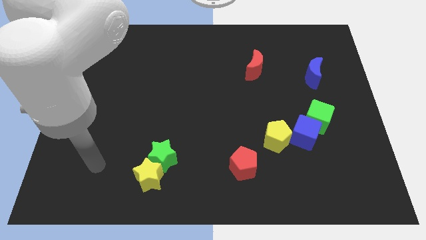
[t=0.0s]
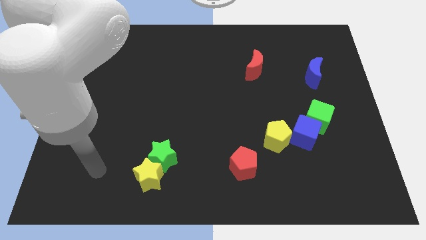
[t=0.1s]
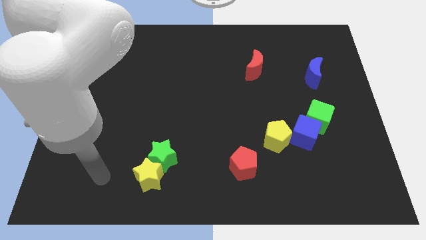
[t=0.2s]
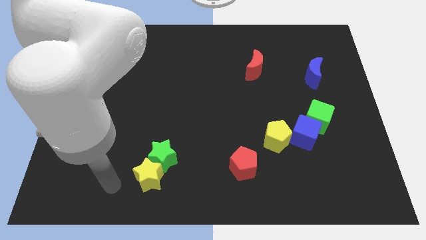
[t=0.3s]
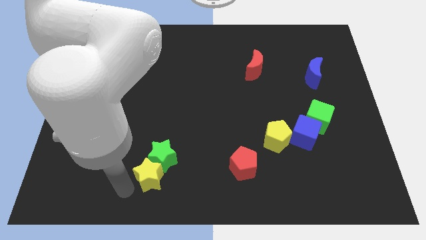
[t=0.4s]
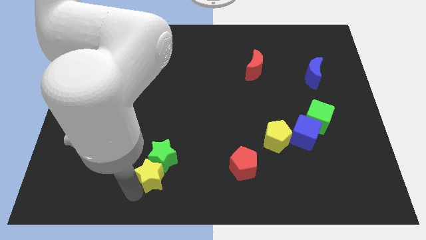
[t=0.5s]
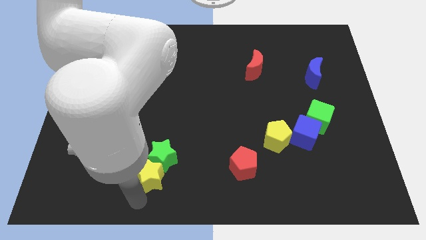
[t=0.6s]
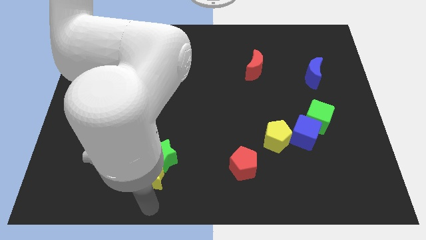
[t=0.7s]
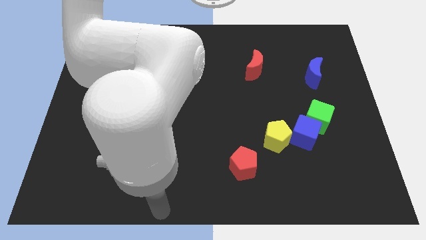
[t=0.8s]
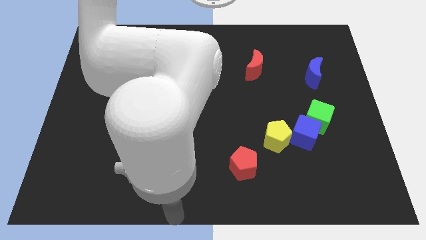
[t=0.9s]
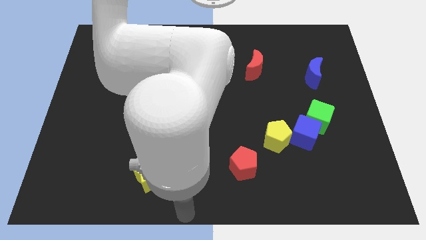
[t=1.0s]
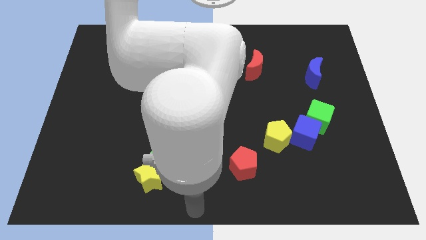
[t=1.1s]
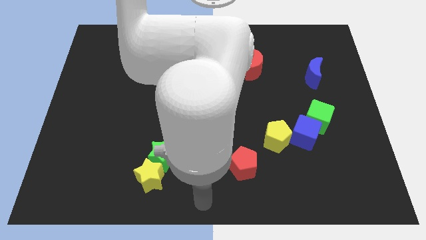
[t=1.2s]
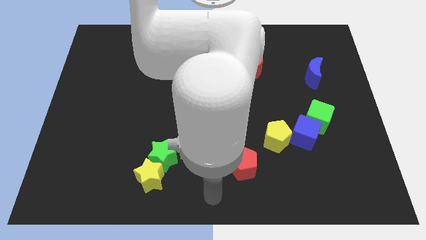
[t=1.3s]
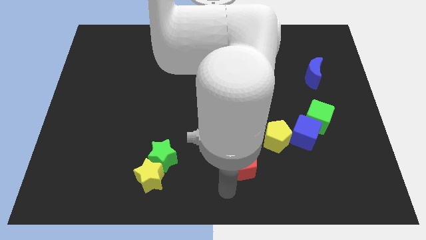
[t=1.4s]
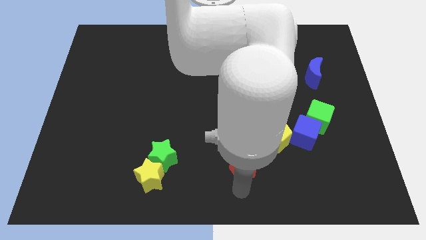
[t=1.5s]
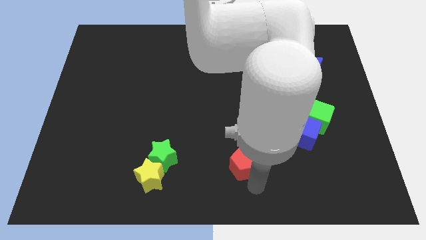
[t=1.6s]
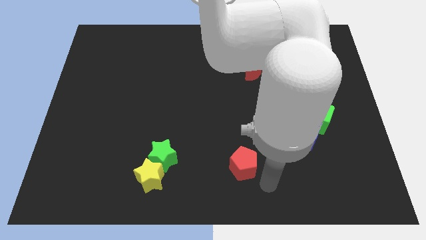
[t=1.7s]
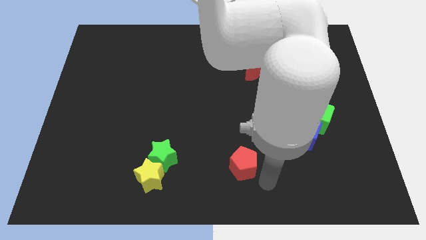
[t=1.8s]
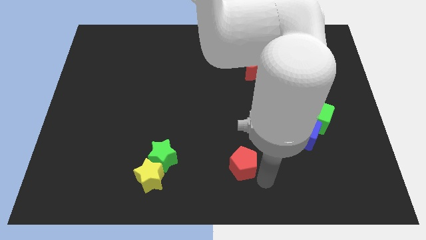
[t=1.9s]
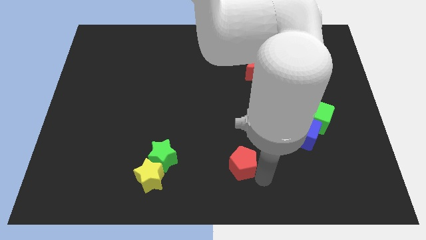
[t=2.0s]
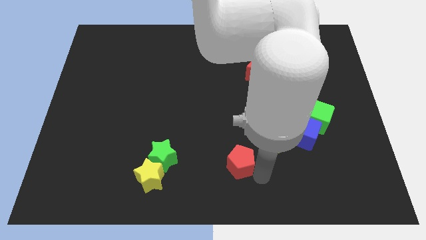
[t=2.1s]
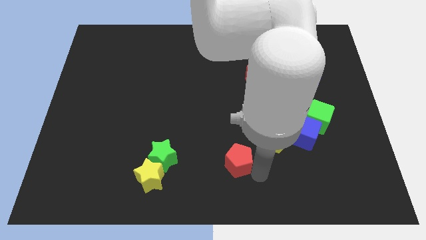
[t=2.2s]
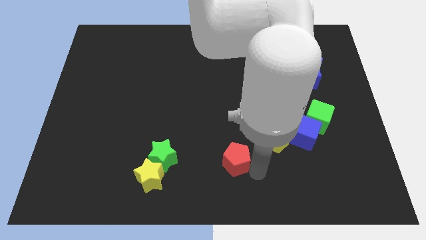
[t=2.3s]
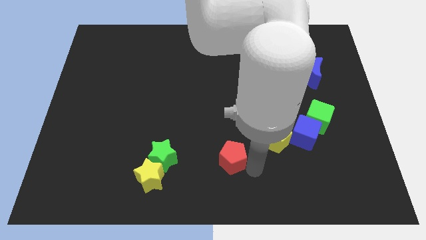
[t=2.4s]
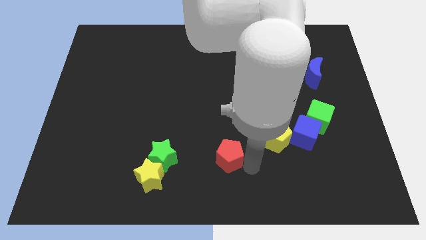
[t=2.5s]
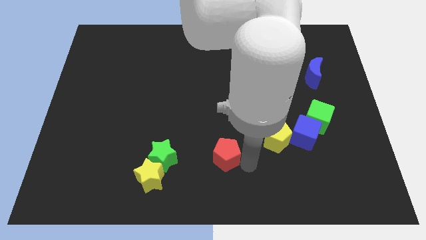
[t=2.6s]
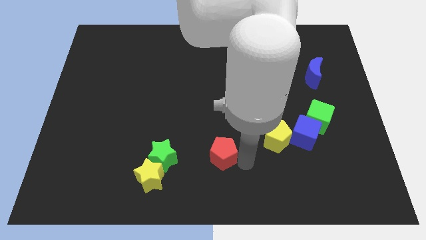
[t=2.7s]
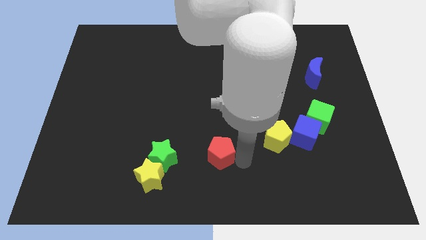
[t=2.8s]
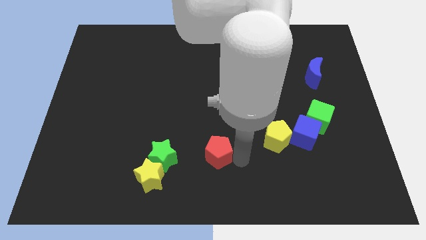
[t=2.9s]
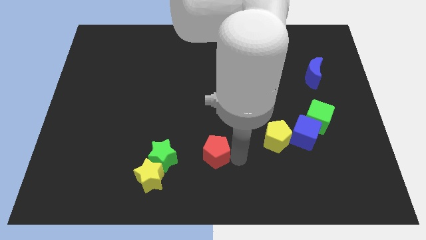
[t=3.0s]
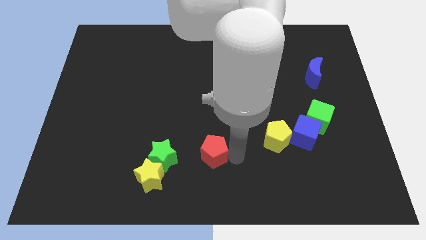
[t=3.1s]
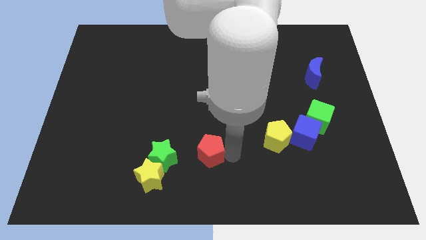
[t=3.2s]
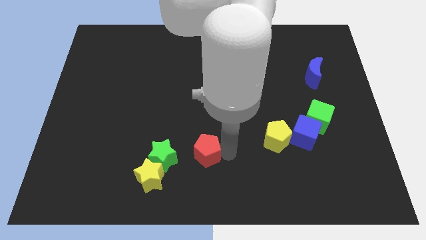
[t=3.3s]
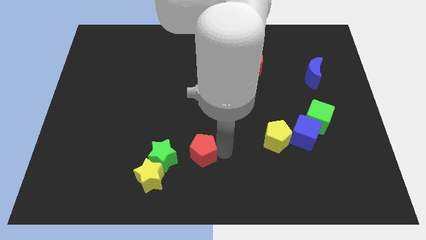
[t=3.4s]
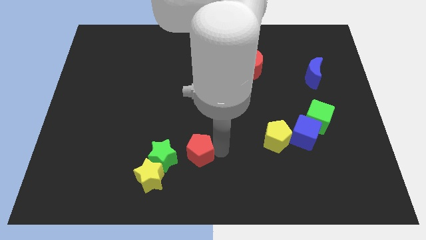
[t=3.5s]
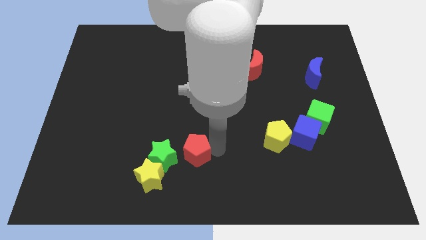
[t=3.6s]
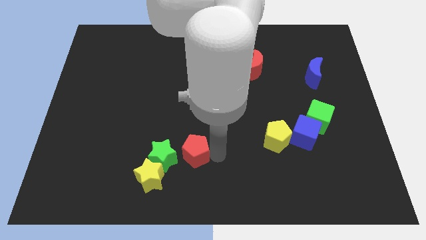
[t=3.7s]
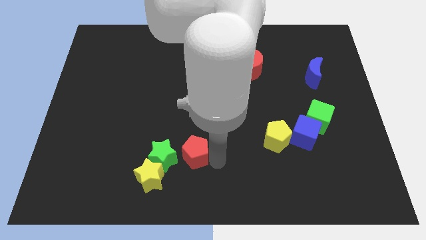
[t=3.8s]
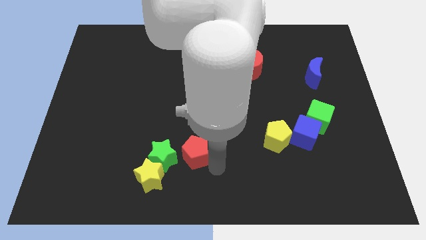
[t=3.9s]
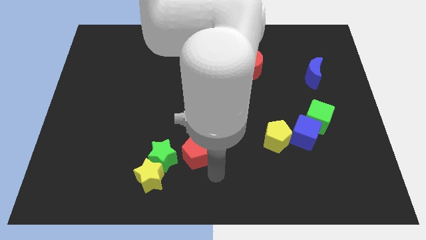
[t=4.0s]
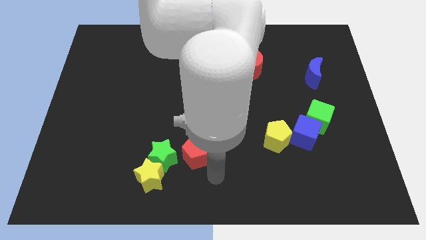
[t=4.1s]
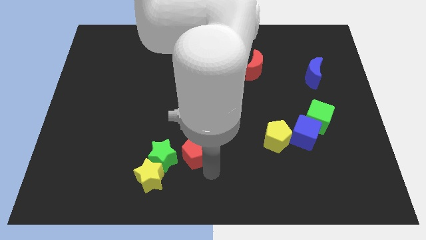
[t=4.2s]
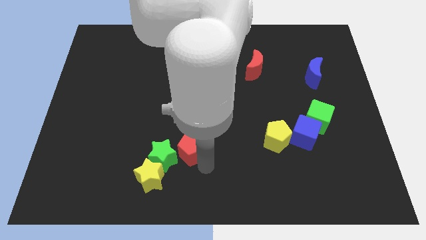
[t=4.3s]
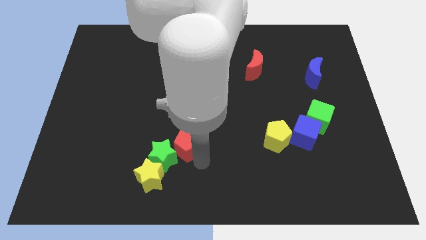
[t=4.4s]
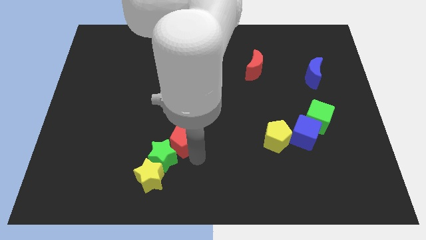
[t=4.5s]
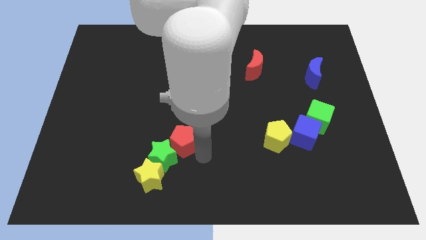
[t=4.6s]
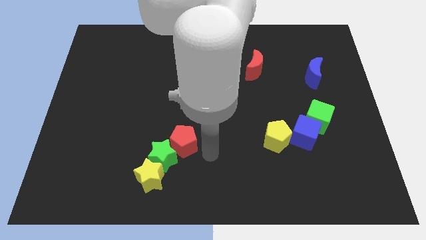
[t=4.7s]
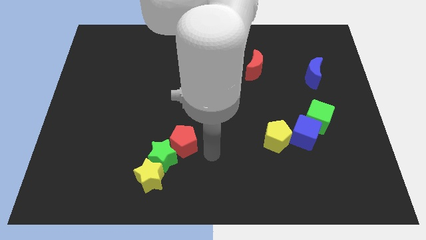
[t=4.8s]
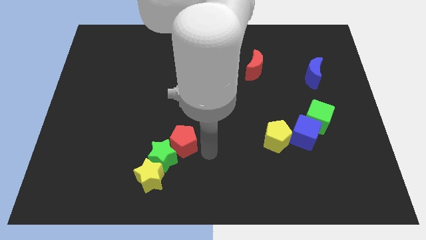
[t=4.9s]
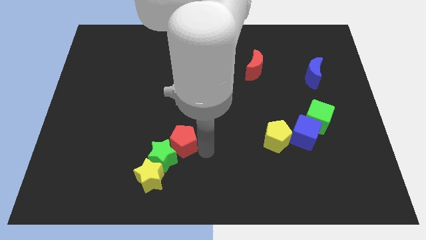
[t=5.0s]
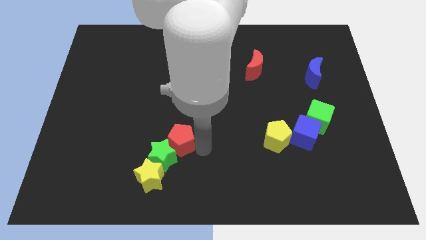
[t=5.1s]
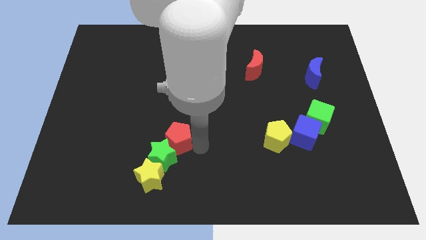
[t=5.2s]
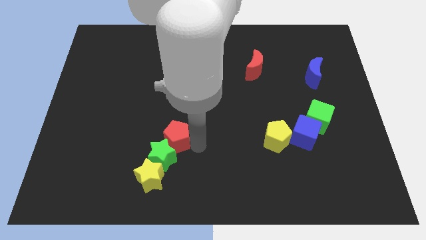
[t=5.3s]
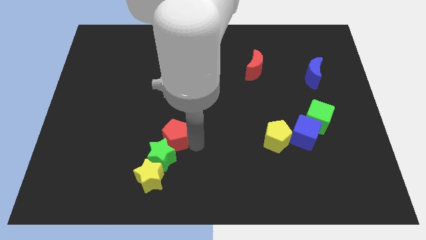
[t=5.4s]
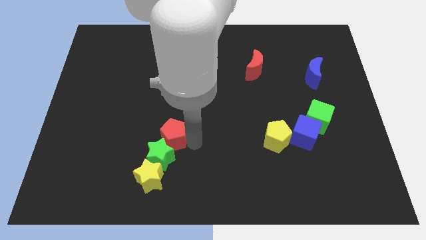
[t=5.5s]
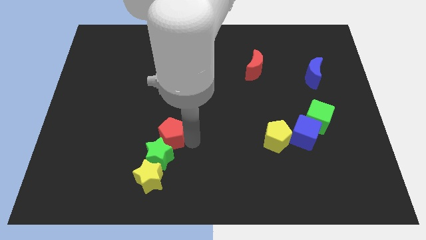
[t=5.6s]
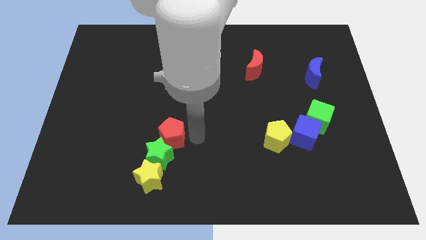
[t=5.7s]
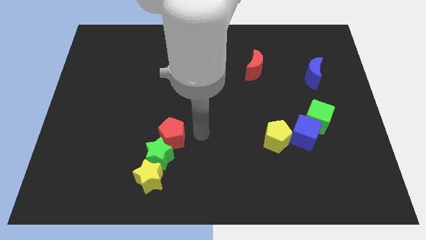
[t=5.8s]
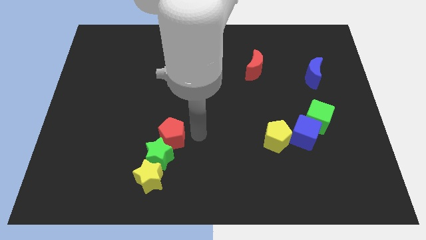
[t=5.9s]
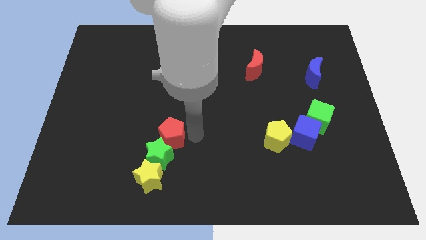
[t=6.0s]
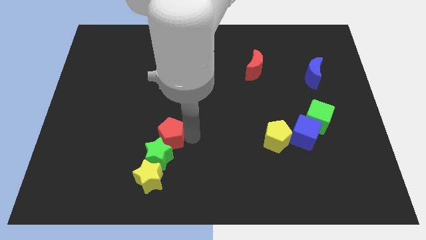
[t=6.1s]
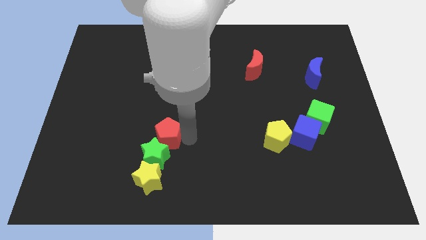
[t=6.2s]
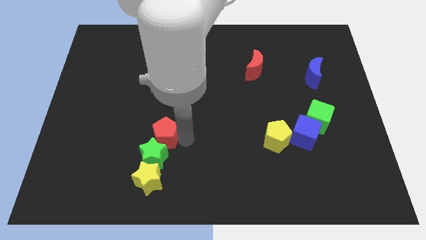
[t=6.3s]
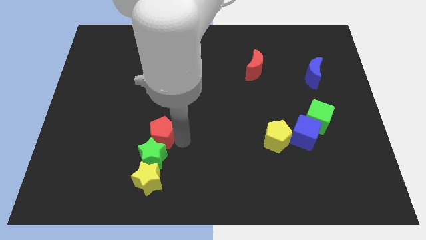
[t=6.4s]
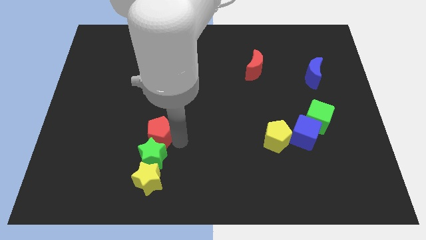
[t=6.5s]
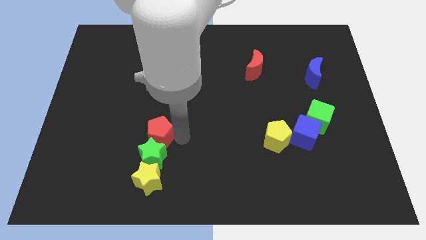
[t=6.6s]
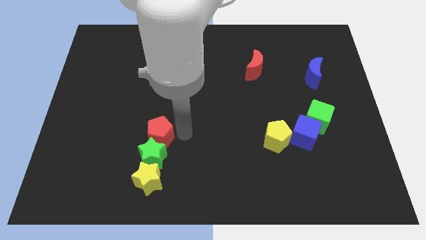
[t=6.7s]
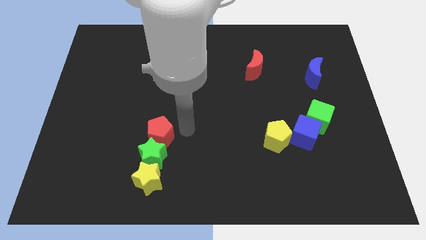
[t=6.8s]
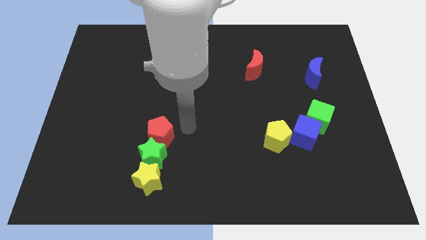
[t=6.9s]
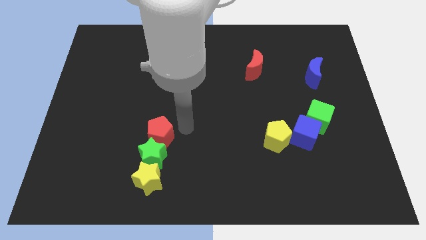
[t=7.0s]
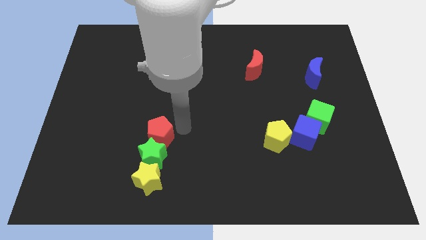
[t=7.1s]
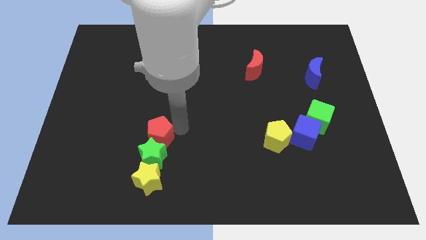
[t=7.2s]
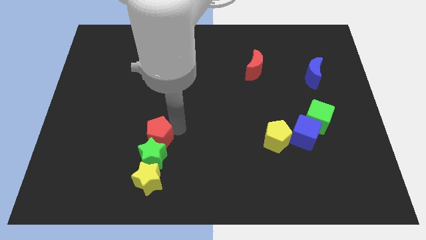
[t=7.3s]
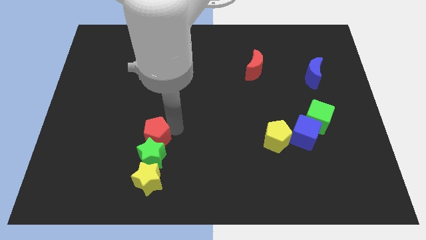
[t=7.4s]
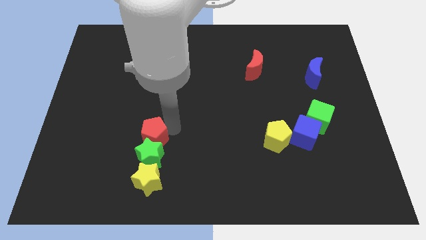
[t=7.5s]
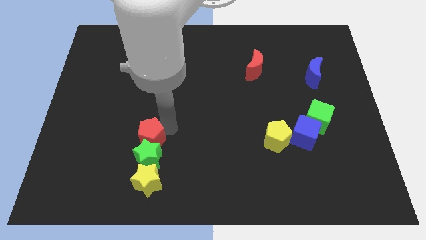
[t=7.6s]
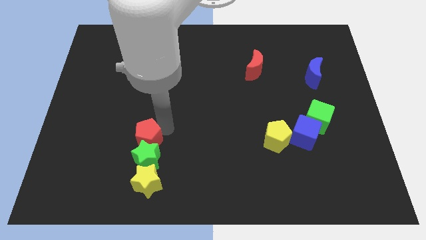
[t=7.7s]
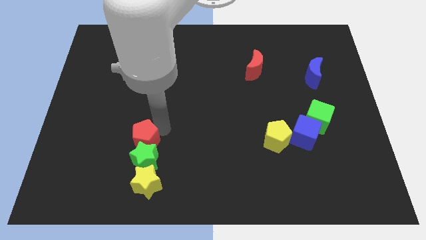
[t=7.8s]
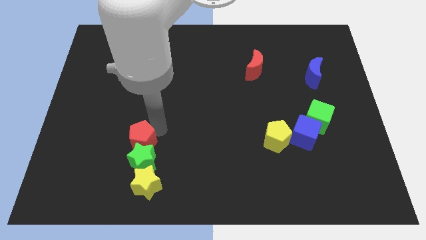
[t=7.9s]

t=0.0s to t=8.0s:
push the red pentagon left
